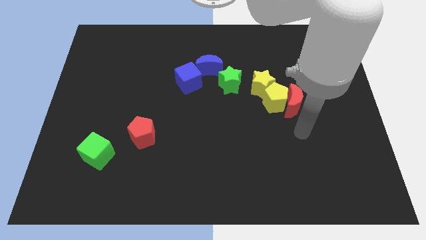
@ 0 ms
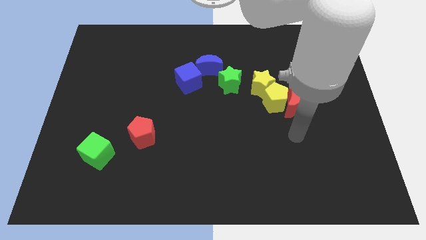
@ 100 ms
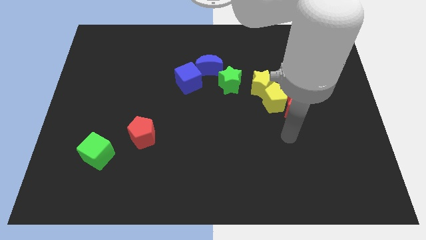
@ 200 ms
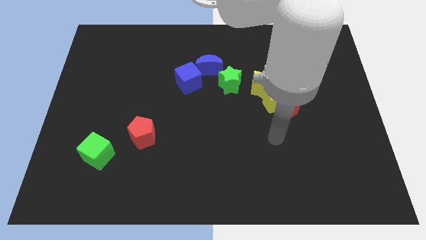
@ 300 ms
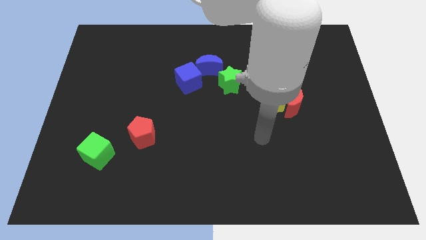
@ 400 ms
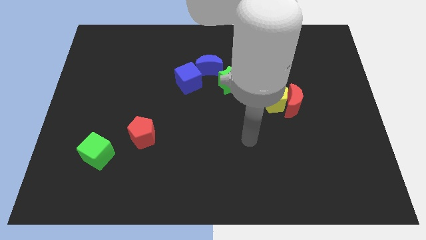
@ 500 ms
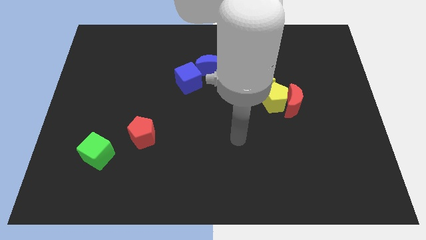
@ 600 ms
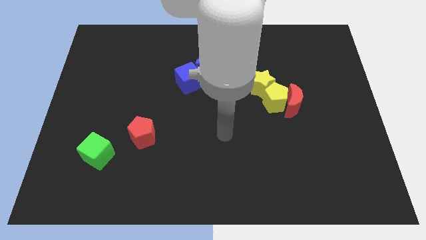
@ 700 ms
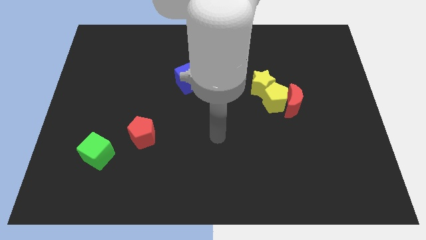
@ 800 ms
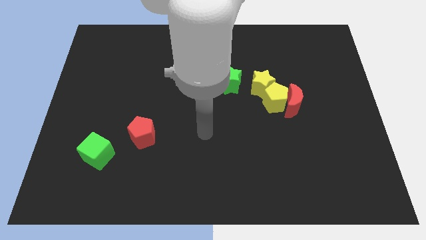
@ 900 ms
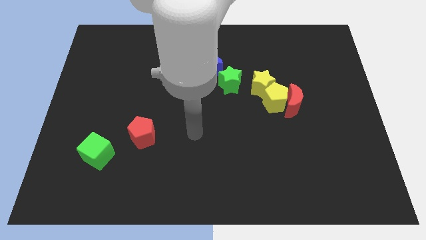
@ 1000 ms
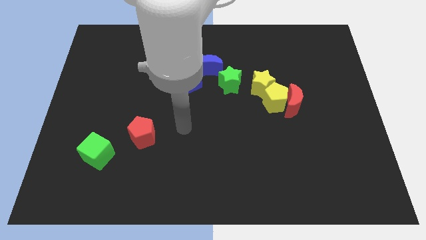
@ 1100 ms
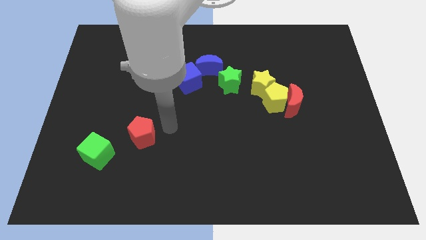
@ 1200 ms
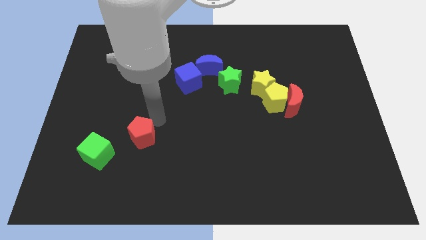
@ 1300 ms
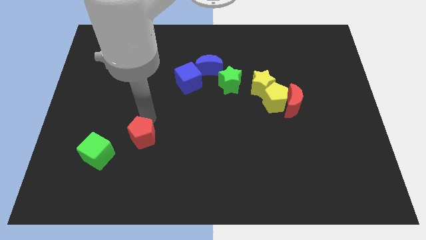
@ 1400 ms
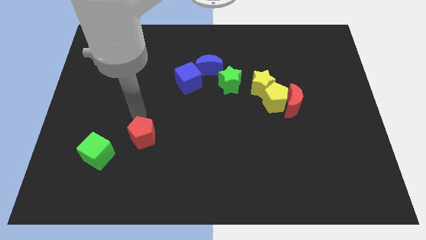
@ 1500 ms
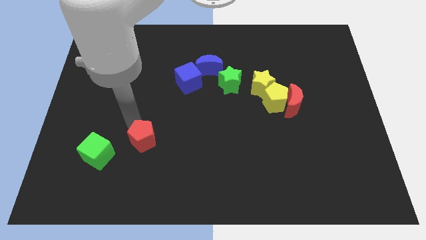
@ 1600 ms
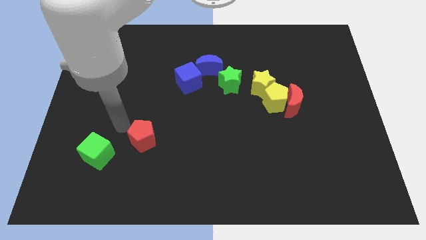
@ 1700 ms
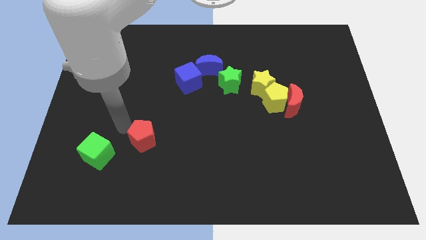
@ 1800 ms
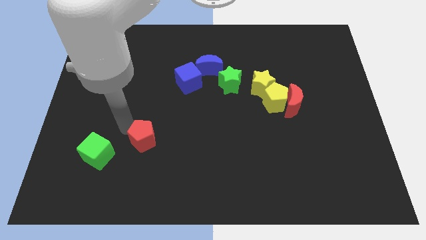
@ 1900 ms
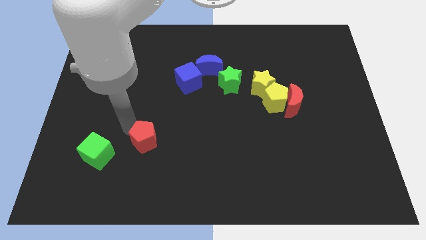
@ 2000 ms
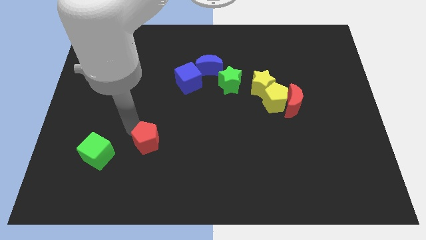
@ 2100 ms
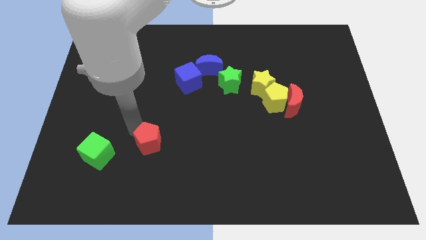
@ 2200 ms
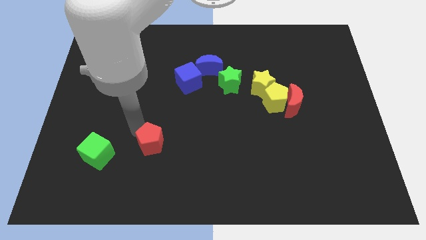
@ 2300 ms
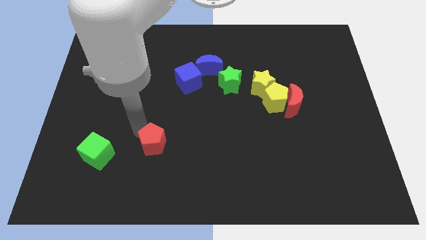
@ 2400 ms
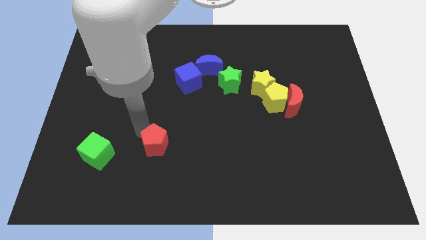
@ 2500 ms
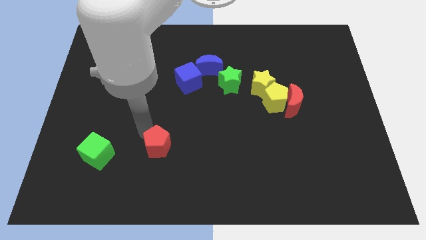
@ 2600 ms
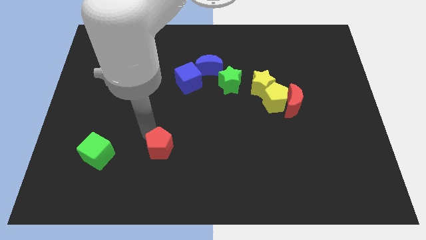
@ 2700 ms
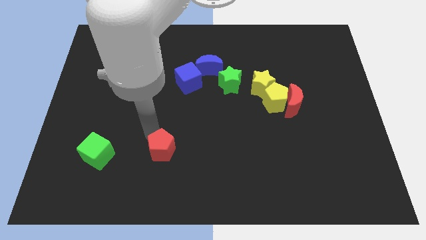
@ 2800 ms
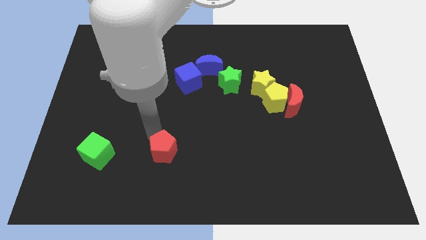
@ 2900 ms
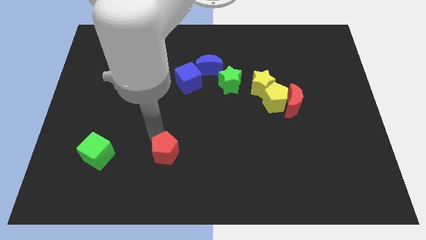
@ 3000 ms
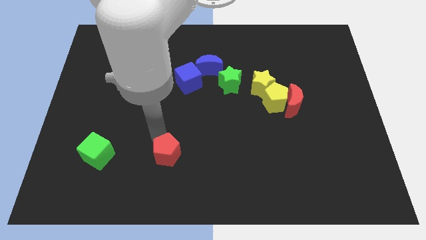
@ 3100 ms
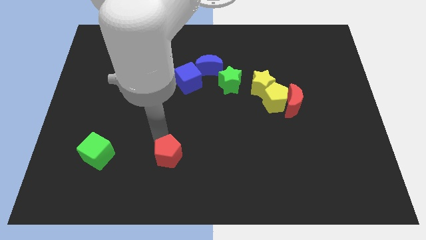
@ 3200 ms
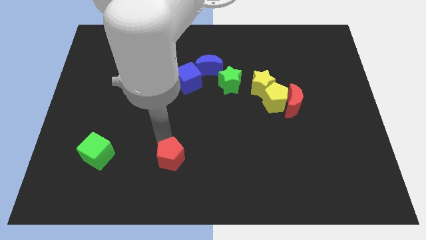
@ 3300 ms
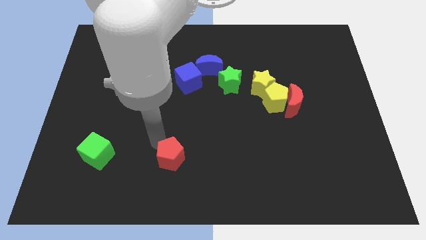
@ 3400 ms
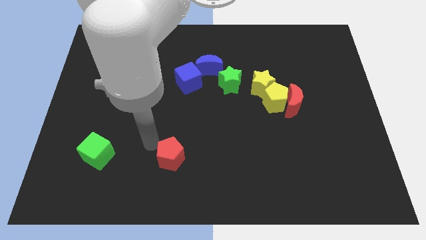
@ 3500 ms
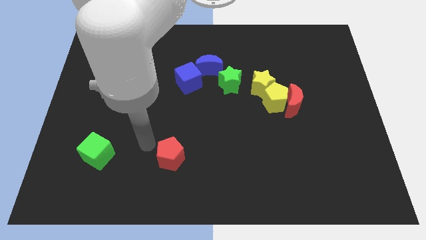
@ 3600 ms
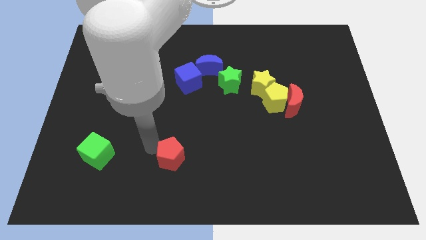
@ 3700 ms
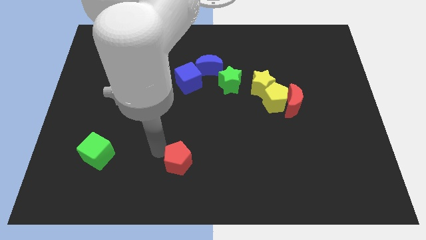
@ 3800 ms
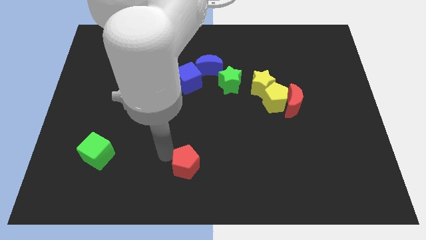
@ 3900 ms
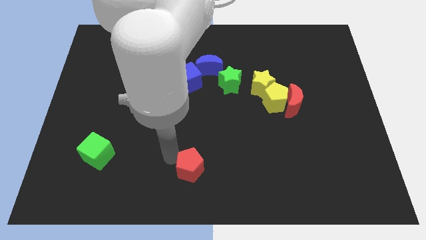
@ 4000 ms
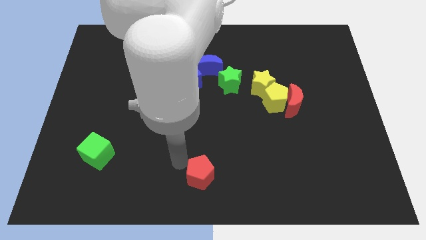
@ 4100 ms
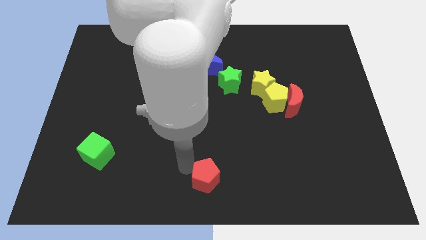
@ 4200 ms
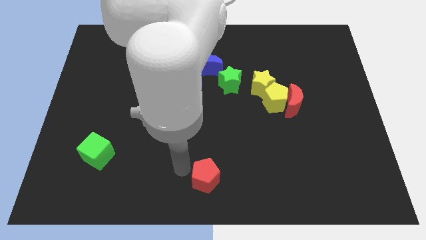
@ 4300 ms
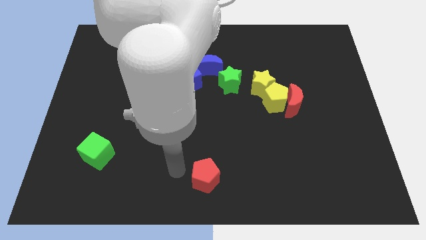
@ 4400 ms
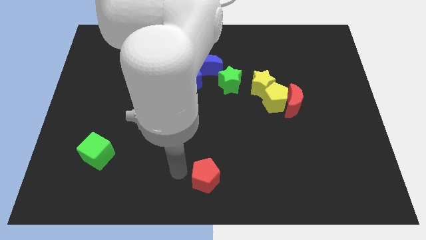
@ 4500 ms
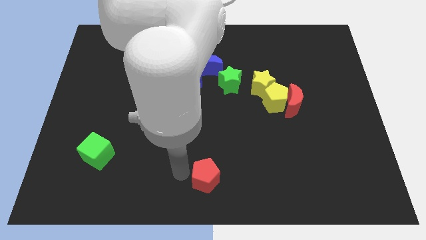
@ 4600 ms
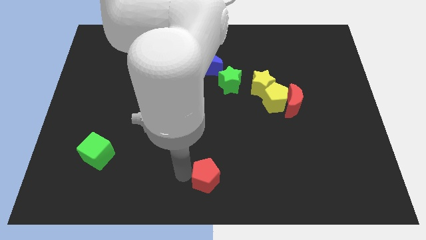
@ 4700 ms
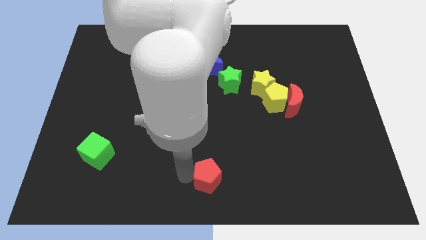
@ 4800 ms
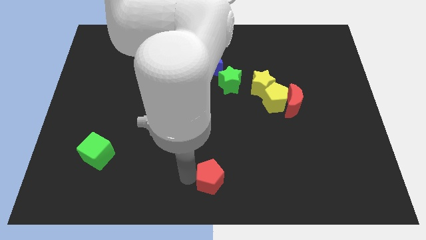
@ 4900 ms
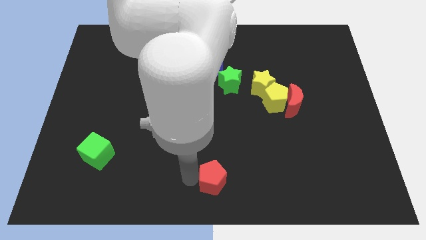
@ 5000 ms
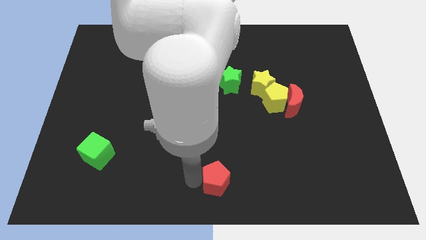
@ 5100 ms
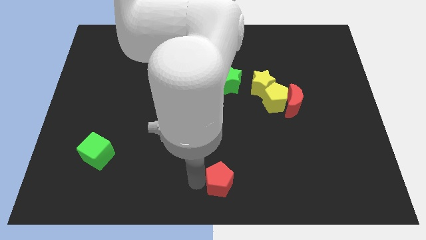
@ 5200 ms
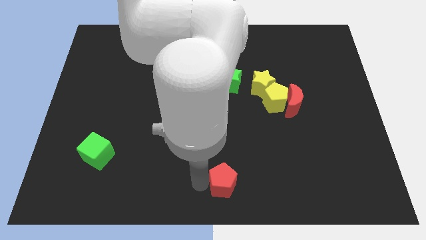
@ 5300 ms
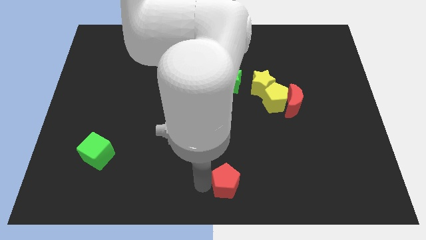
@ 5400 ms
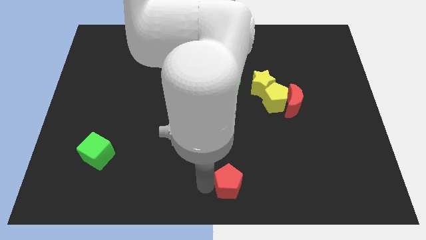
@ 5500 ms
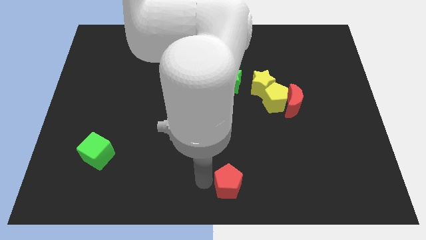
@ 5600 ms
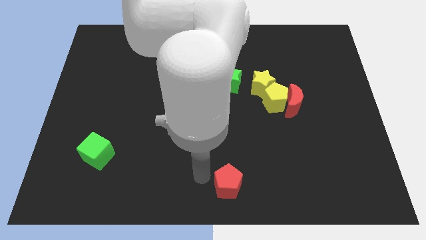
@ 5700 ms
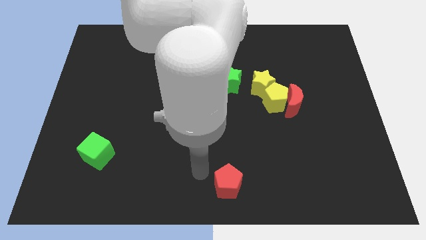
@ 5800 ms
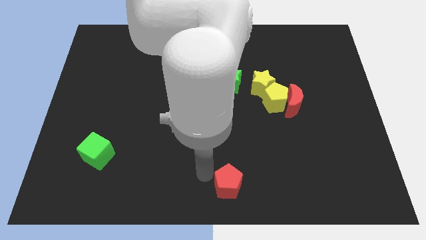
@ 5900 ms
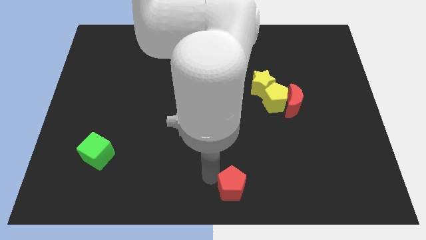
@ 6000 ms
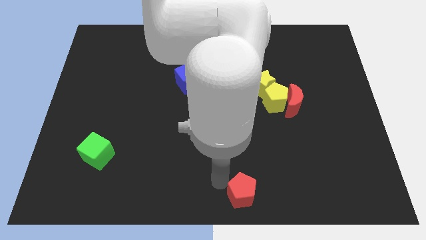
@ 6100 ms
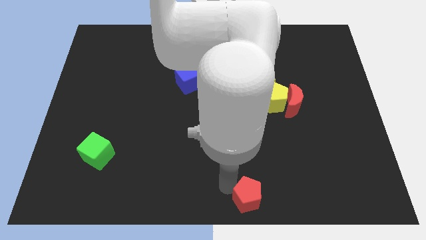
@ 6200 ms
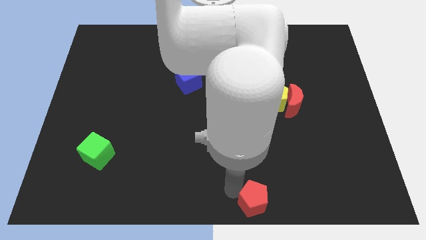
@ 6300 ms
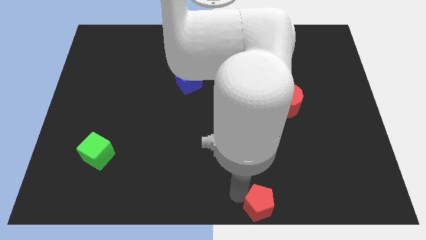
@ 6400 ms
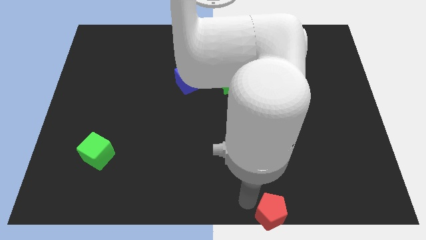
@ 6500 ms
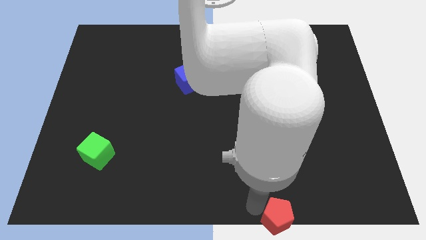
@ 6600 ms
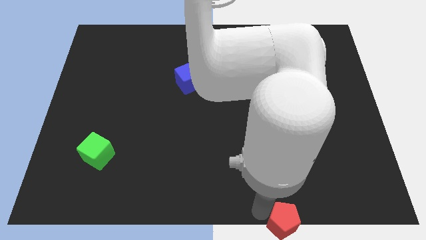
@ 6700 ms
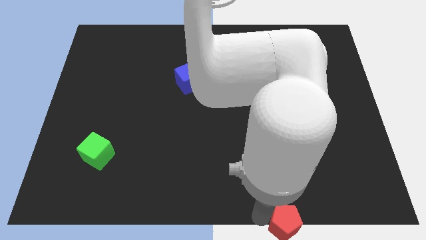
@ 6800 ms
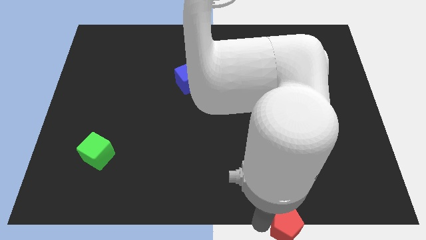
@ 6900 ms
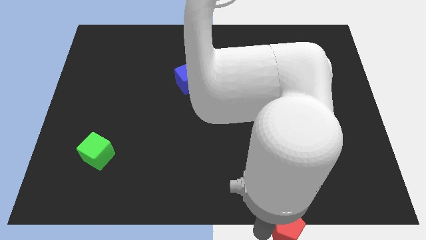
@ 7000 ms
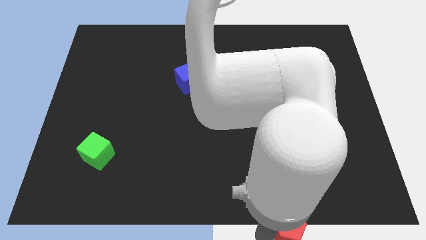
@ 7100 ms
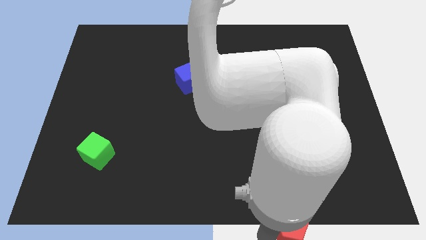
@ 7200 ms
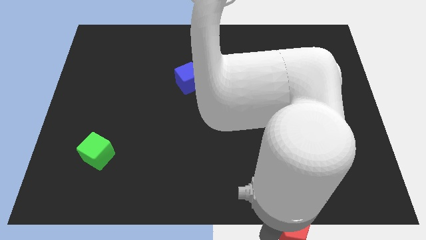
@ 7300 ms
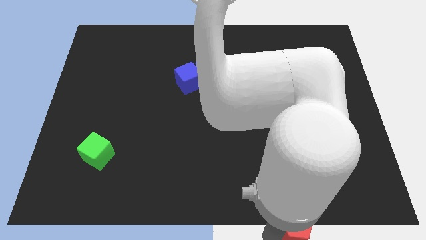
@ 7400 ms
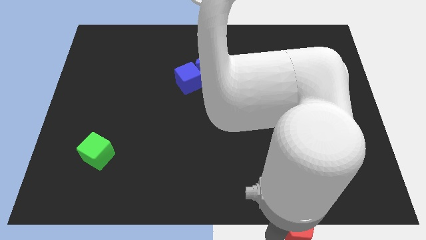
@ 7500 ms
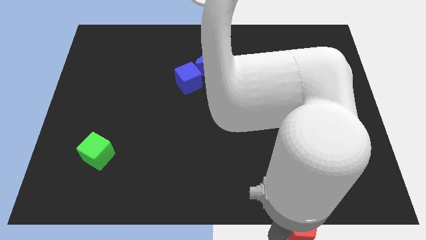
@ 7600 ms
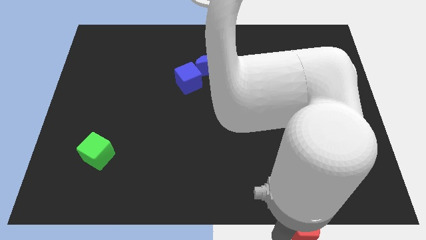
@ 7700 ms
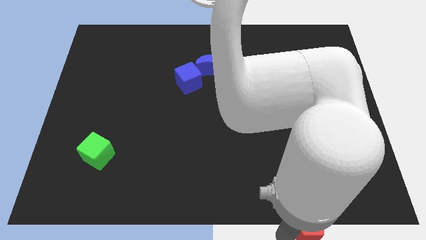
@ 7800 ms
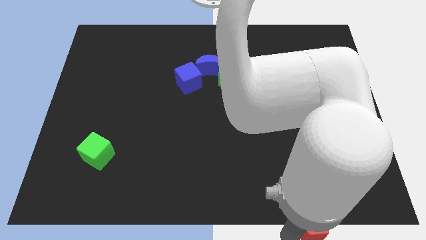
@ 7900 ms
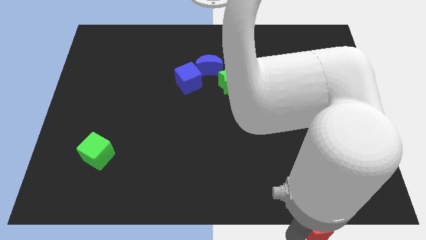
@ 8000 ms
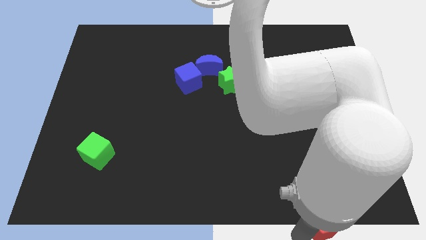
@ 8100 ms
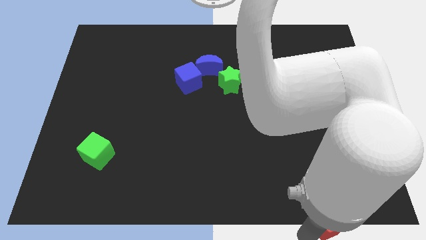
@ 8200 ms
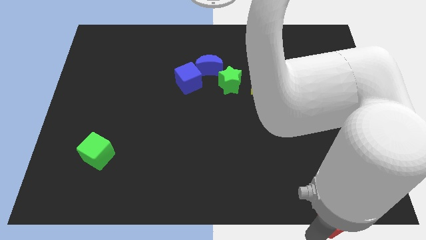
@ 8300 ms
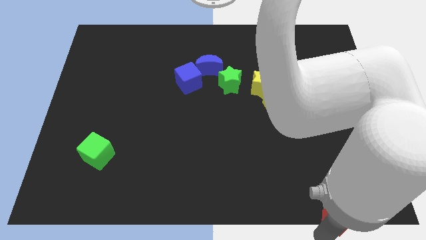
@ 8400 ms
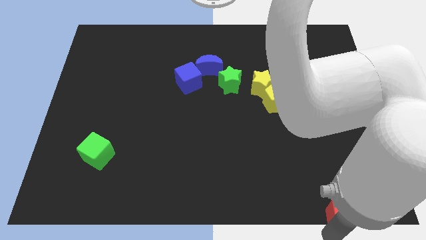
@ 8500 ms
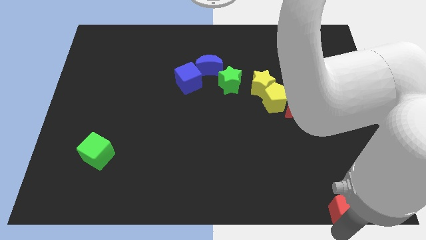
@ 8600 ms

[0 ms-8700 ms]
put the red pentagon to the bottom right

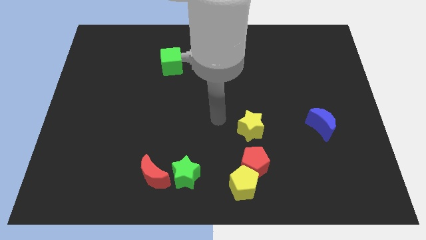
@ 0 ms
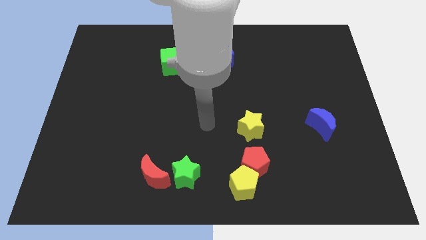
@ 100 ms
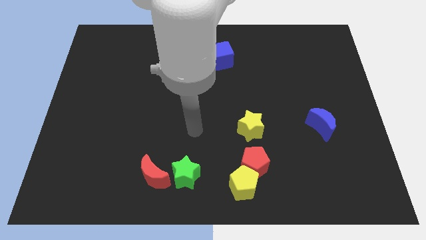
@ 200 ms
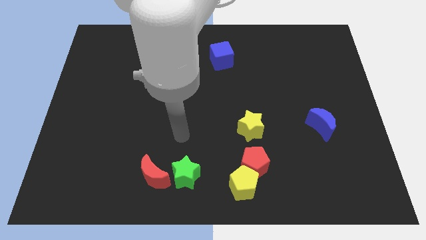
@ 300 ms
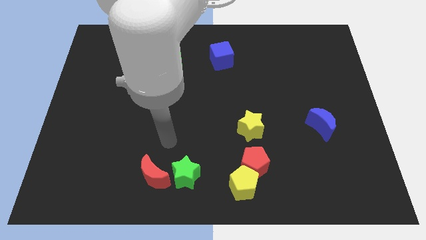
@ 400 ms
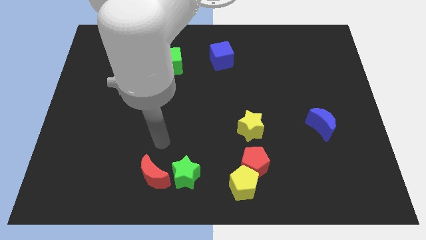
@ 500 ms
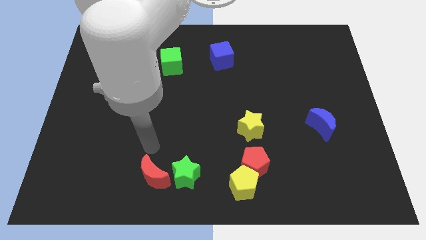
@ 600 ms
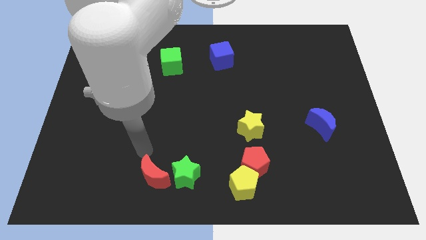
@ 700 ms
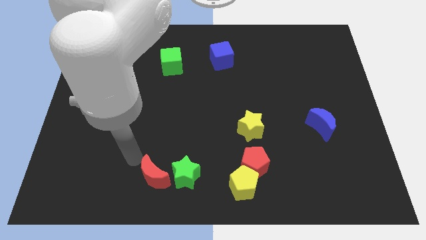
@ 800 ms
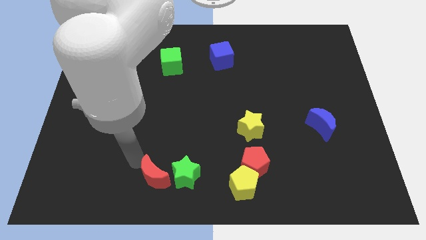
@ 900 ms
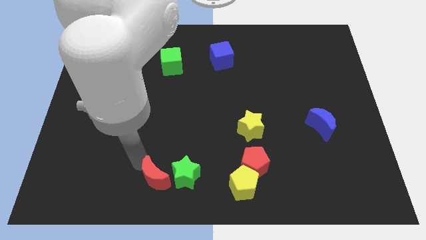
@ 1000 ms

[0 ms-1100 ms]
put the red moon to the bottom side
